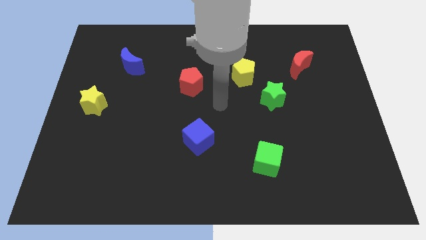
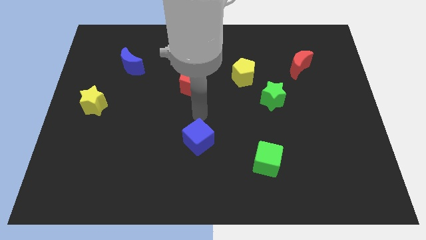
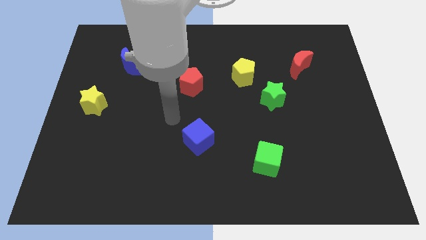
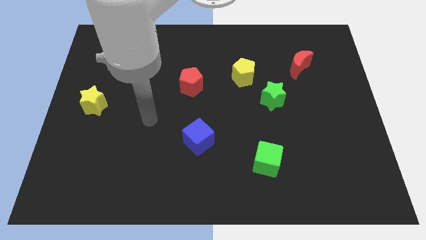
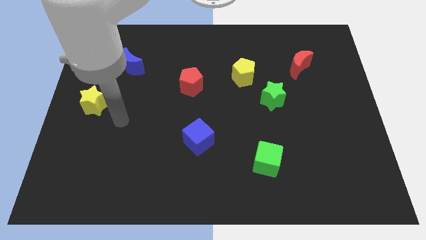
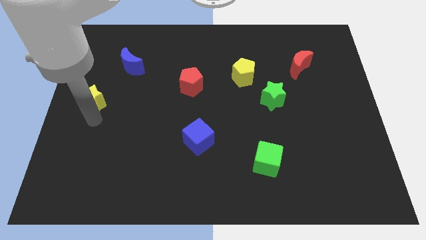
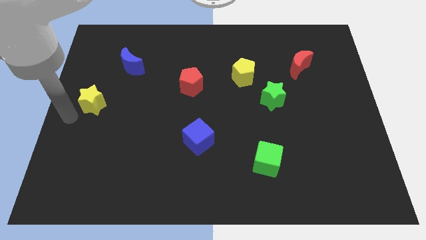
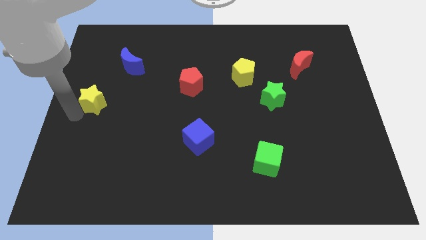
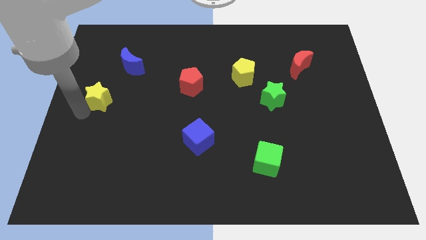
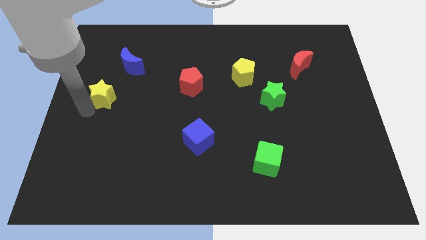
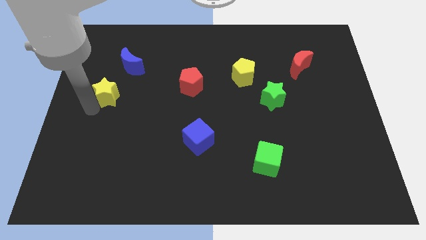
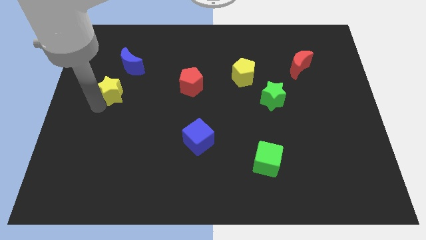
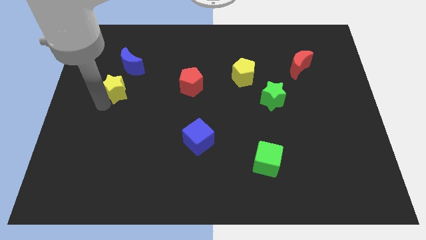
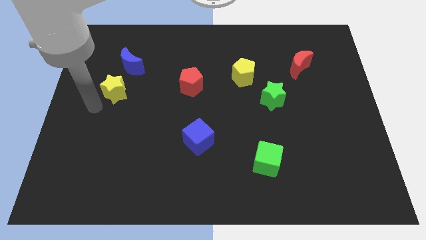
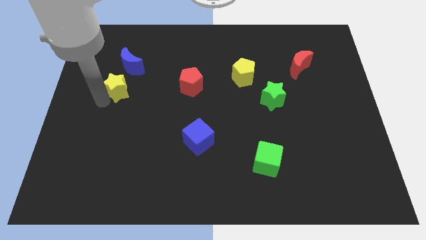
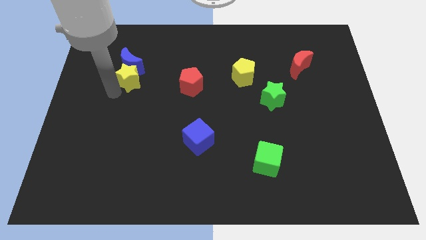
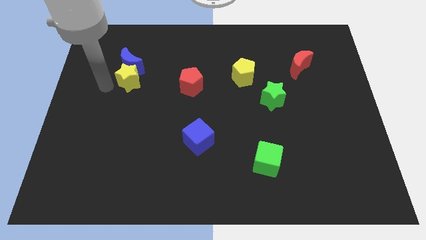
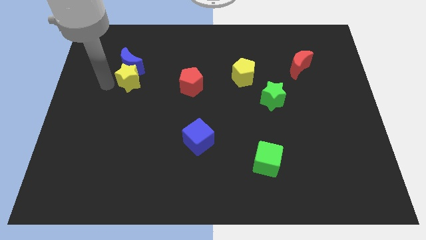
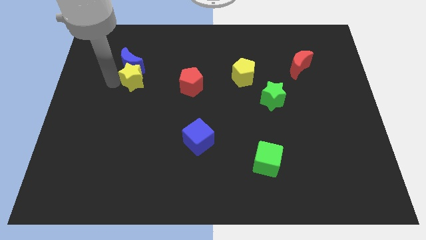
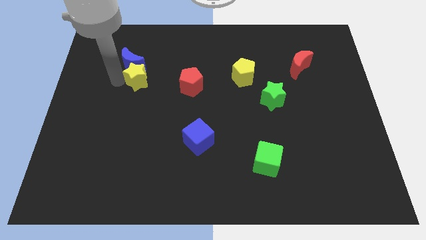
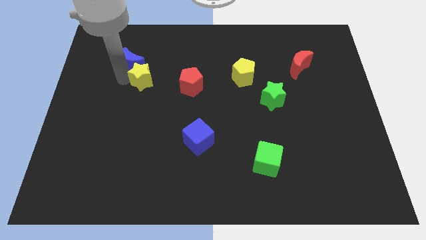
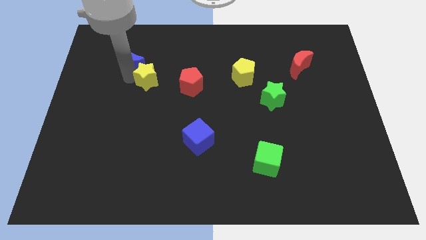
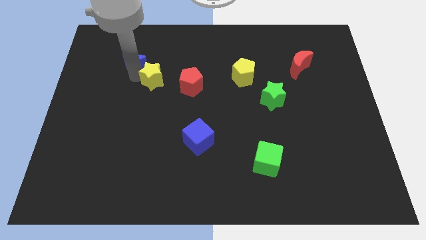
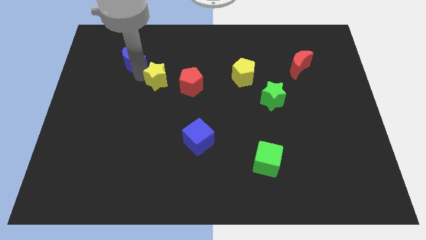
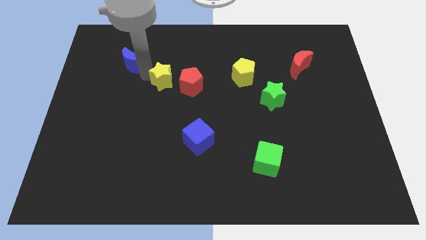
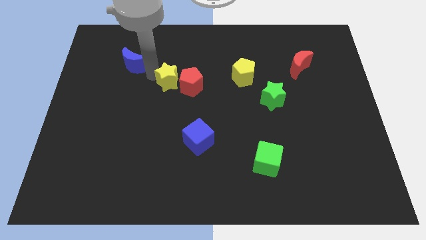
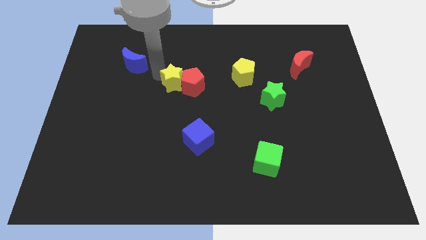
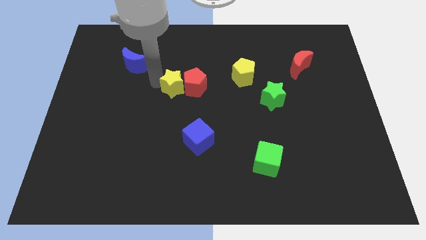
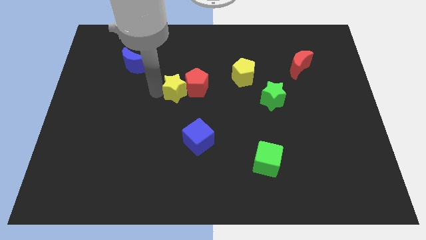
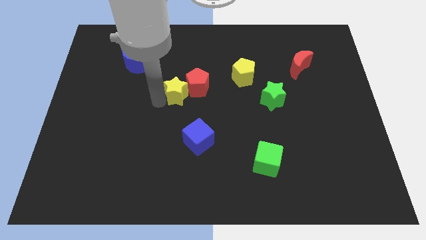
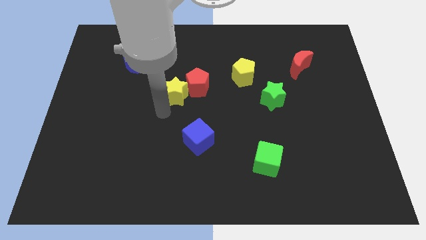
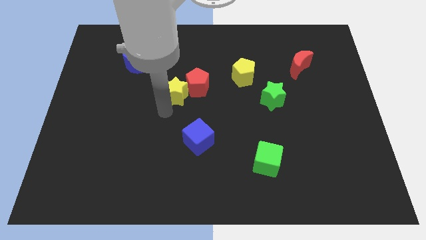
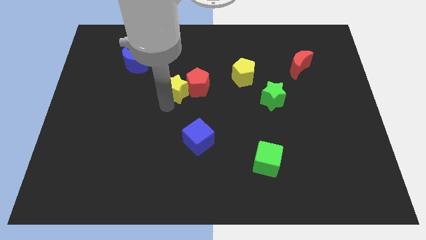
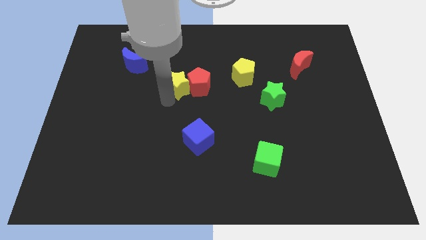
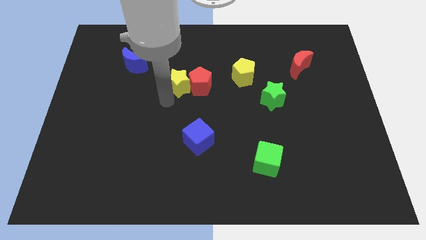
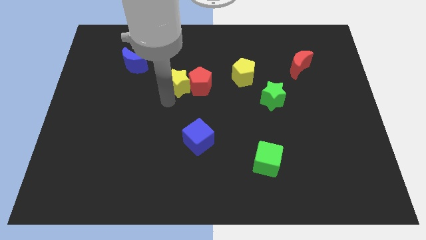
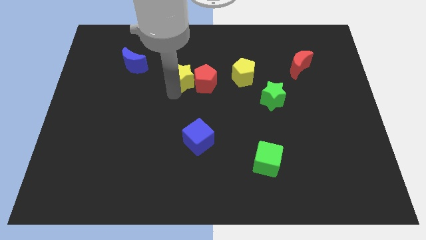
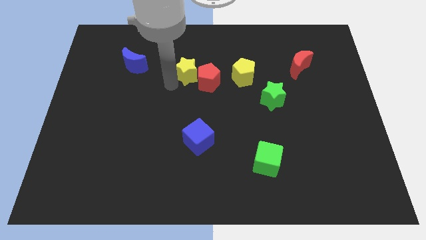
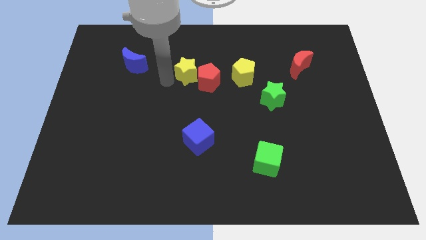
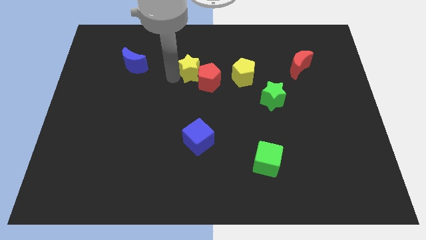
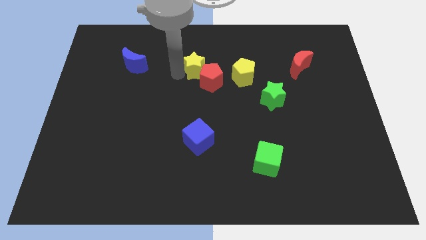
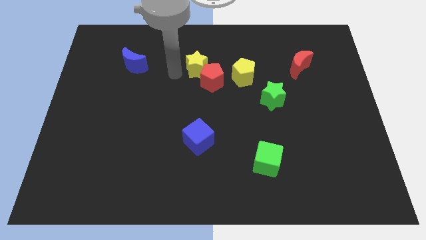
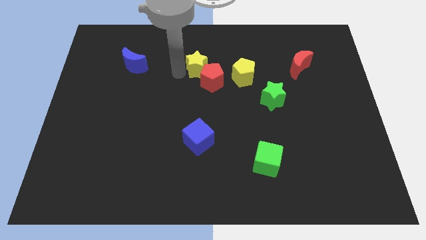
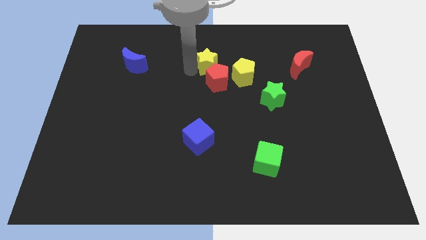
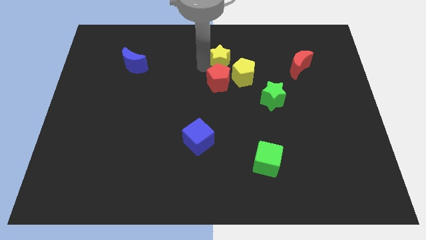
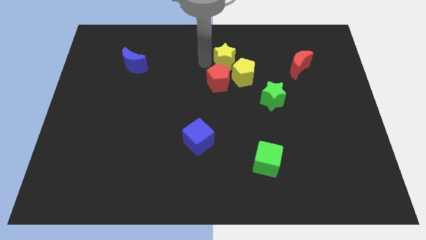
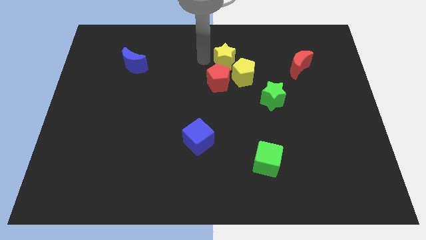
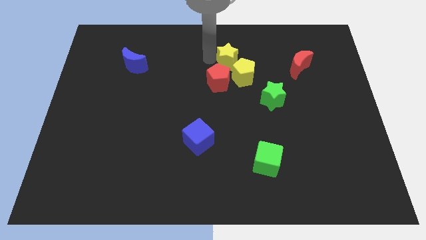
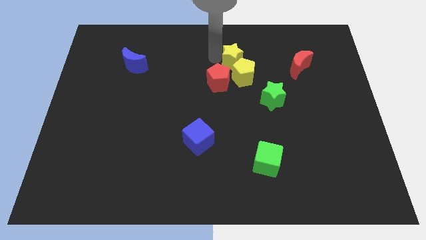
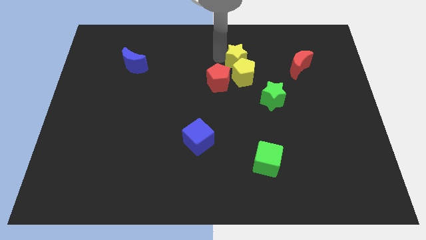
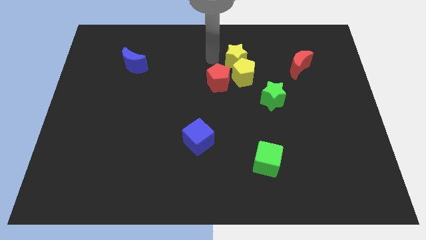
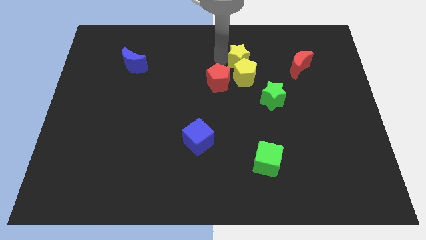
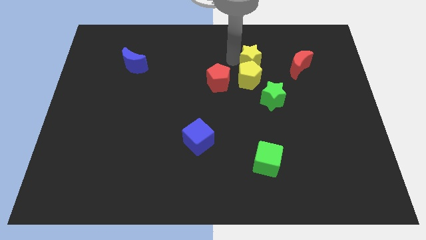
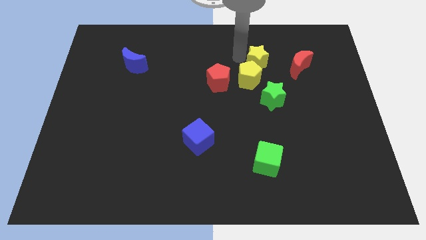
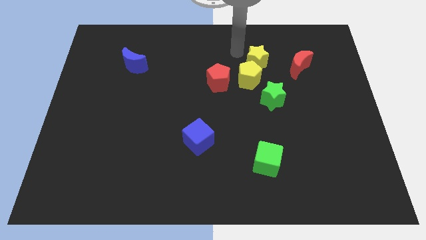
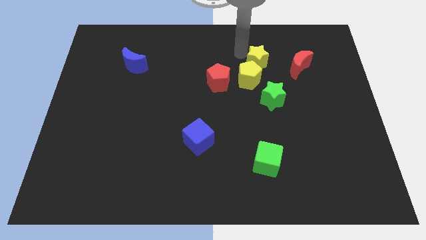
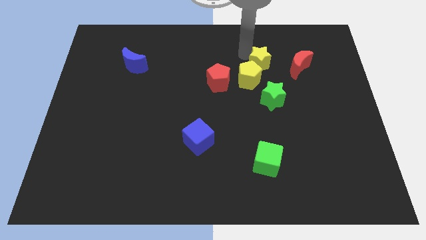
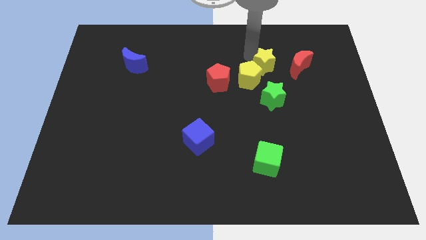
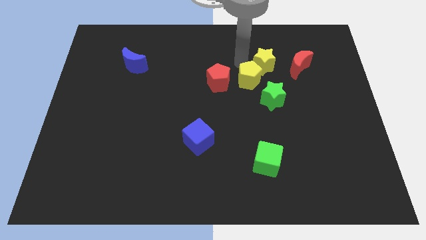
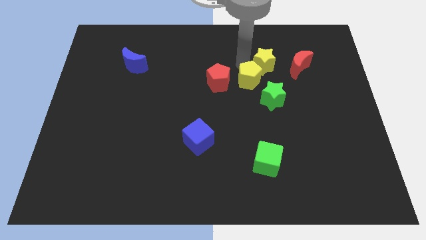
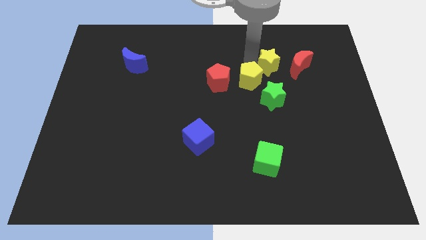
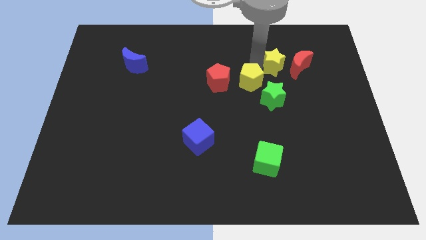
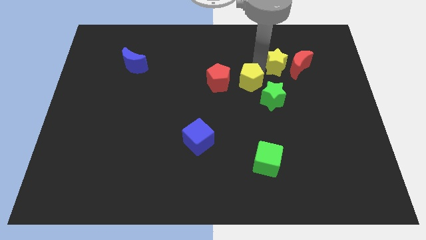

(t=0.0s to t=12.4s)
push the yellow star close to the red moon

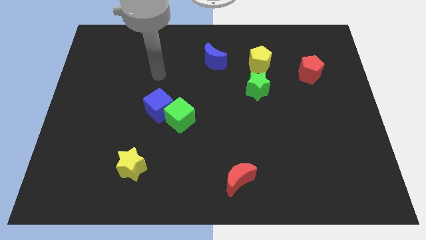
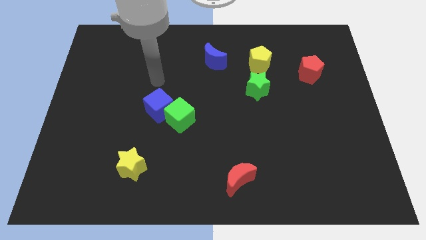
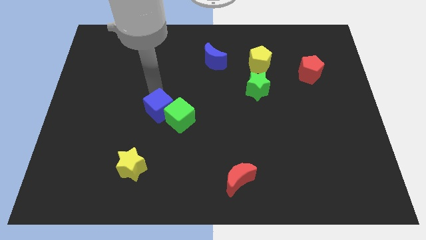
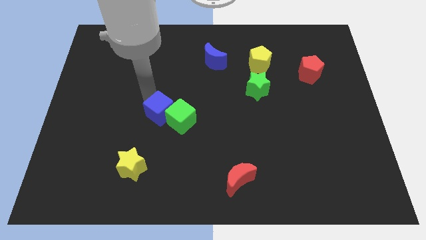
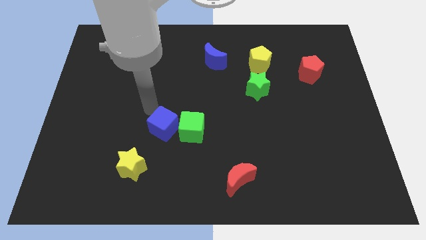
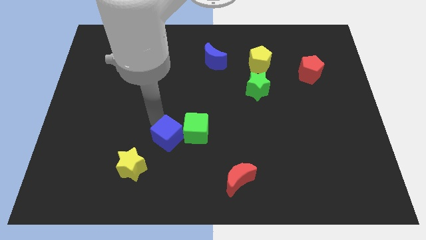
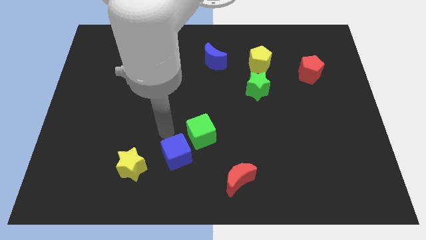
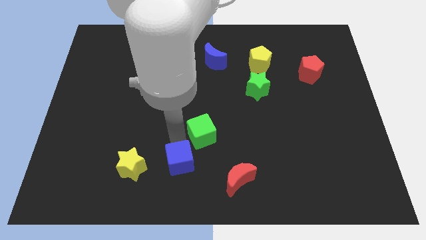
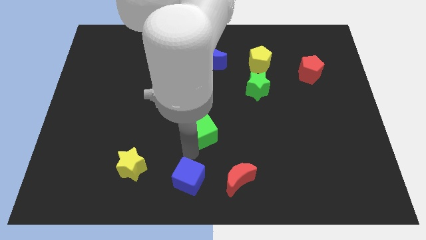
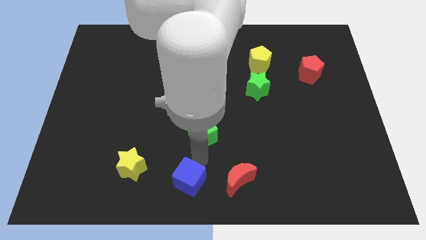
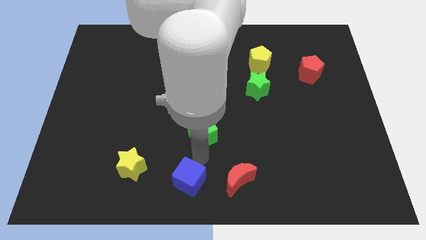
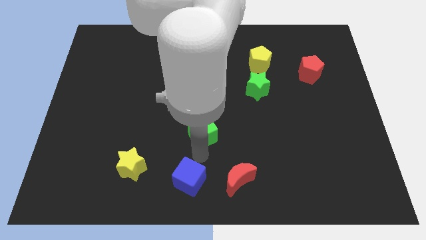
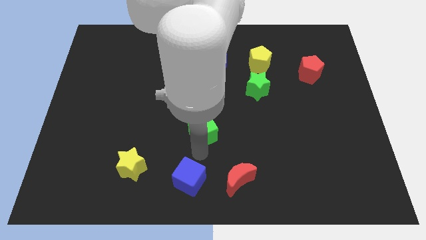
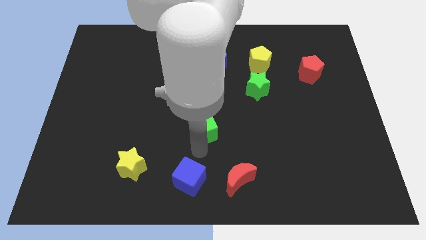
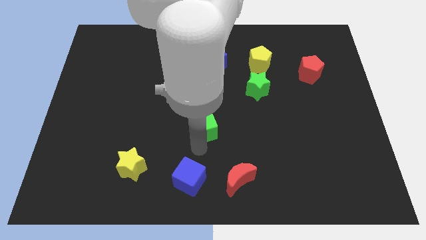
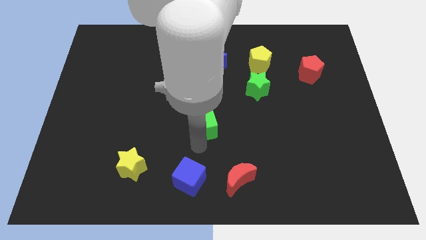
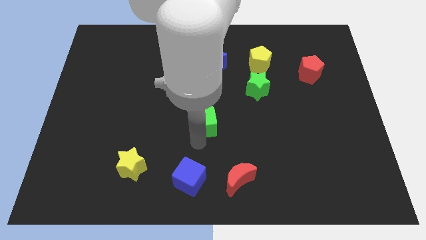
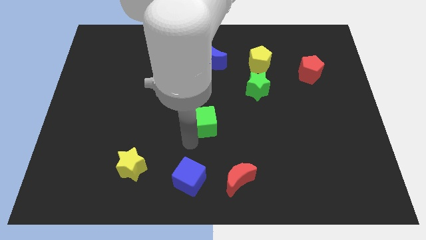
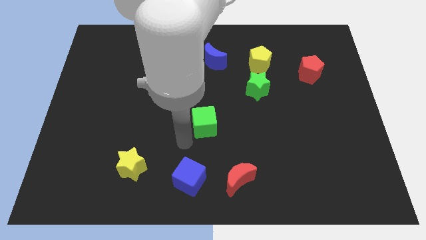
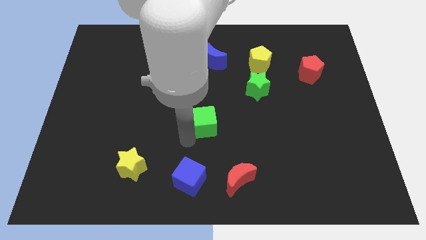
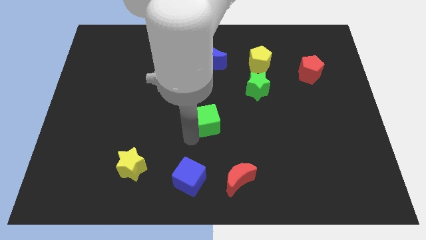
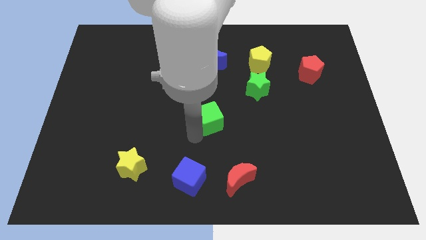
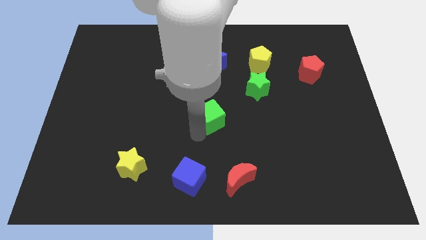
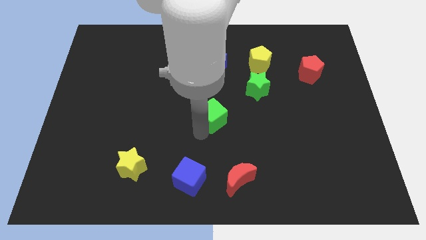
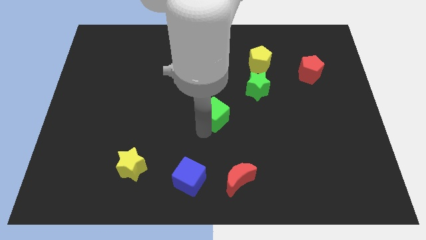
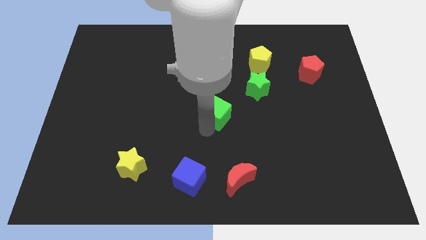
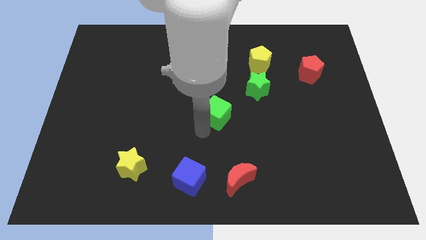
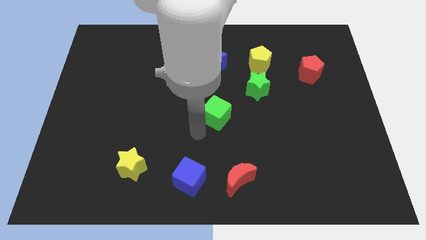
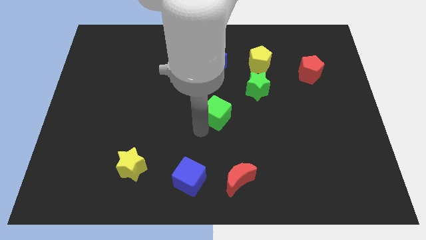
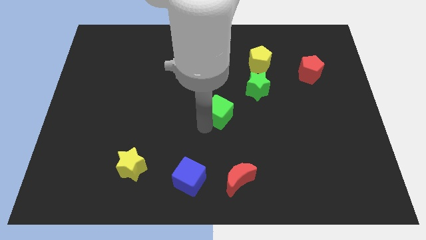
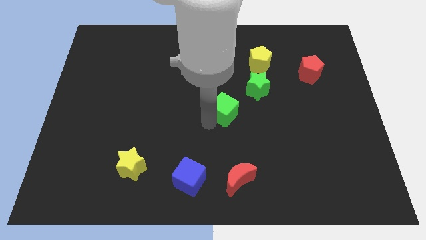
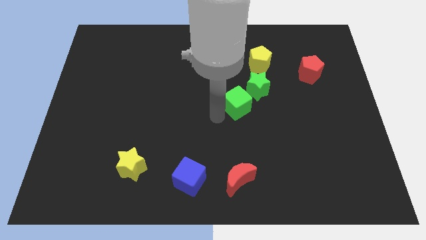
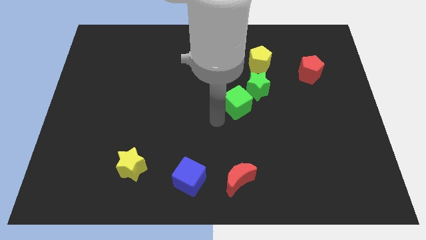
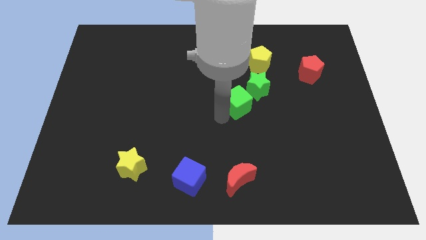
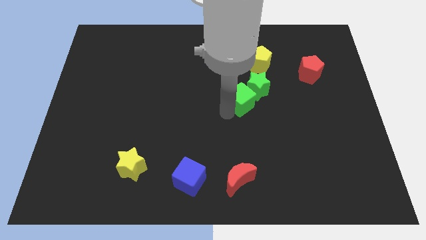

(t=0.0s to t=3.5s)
put the green cube to the green star
